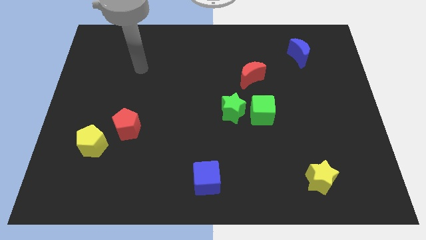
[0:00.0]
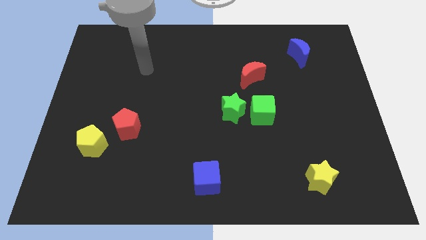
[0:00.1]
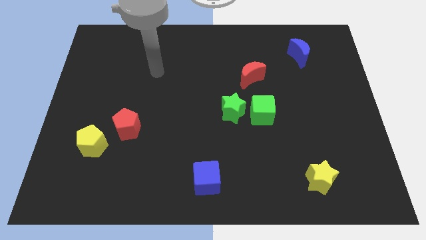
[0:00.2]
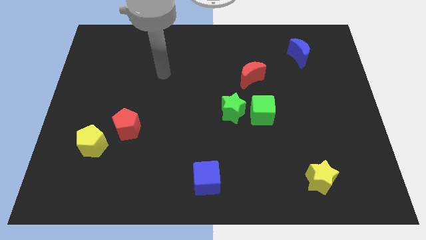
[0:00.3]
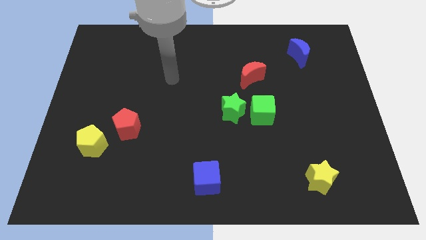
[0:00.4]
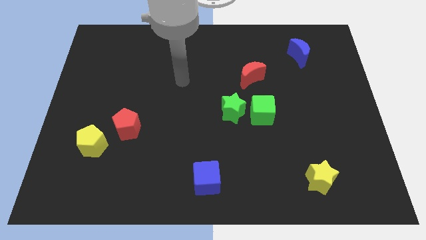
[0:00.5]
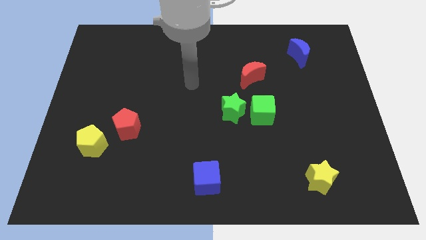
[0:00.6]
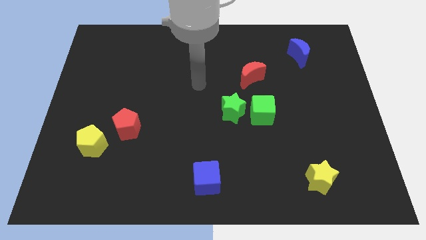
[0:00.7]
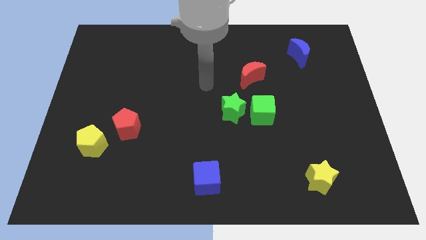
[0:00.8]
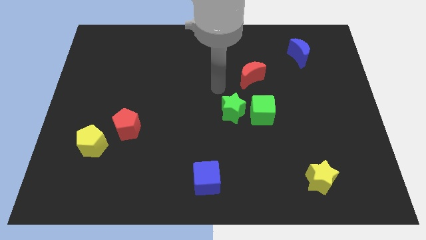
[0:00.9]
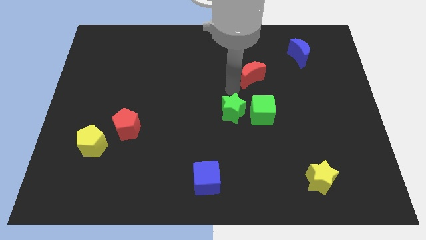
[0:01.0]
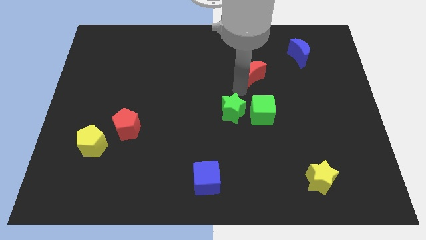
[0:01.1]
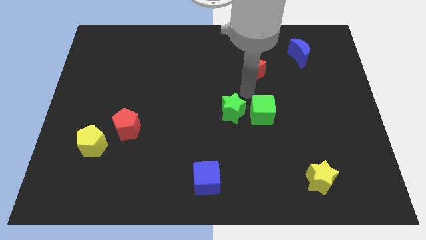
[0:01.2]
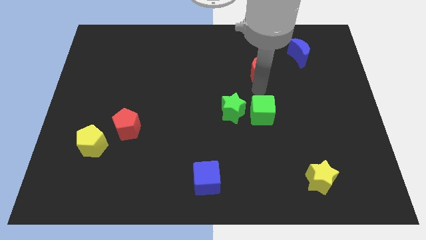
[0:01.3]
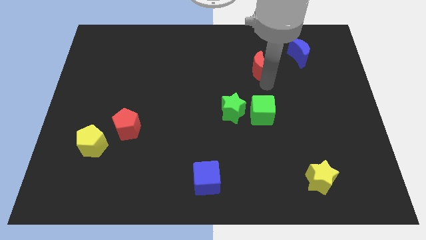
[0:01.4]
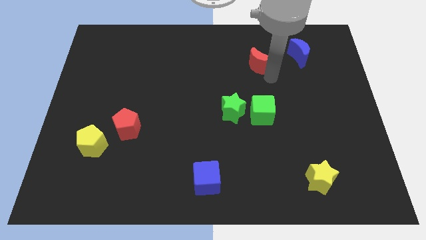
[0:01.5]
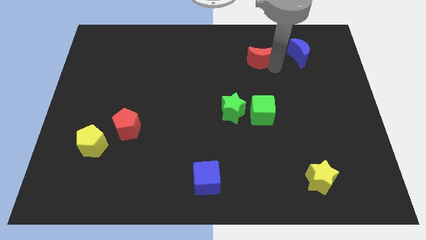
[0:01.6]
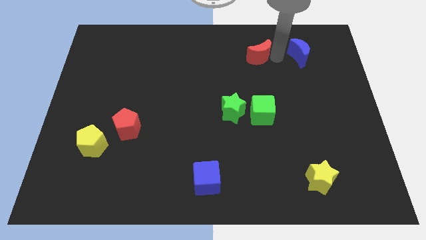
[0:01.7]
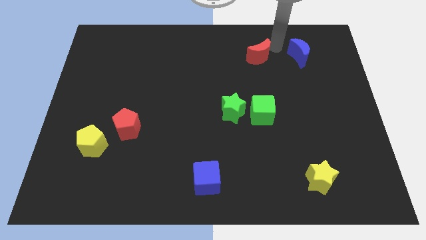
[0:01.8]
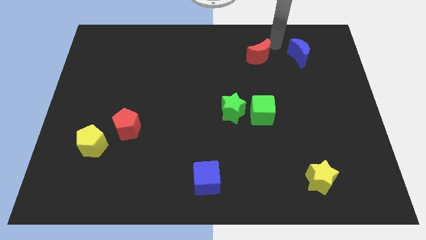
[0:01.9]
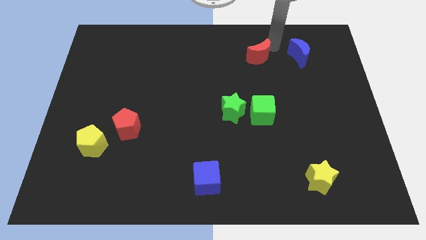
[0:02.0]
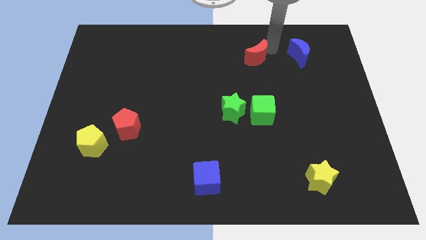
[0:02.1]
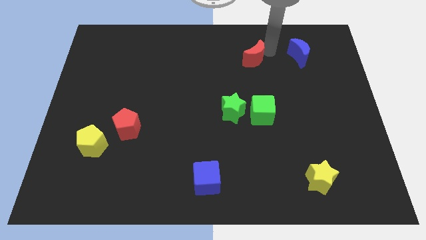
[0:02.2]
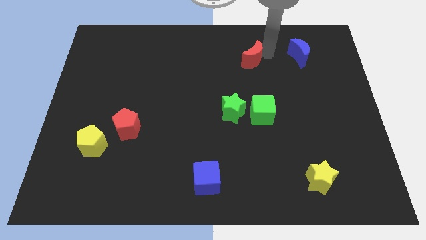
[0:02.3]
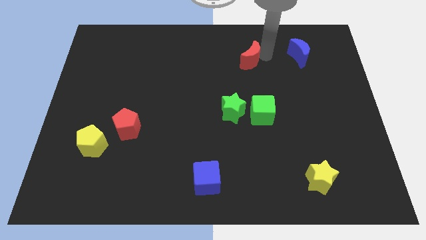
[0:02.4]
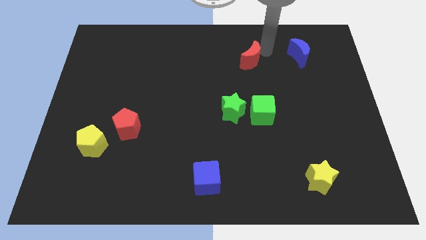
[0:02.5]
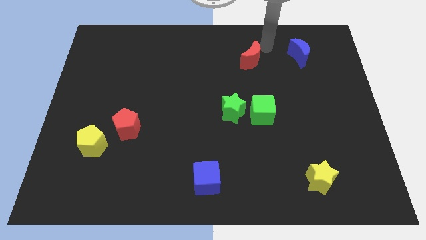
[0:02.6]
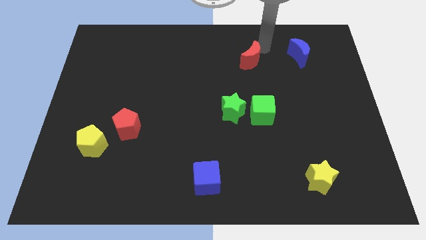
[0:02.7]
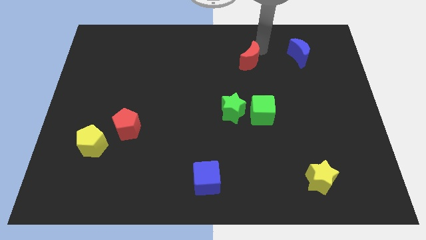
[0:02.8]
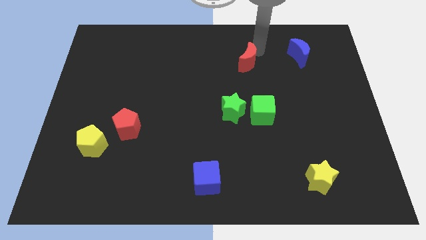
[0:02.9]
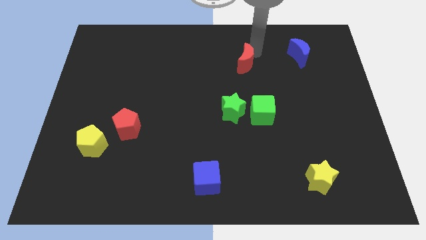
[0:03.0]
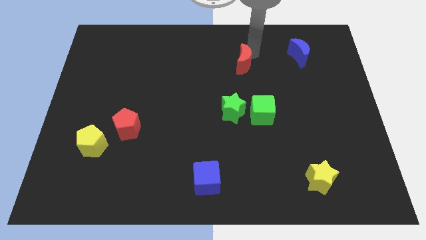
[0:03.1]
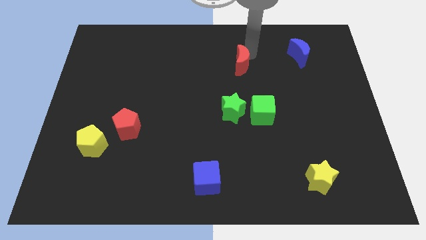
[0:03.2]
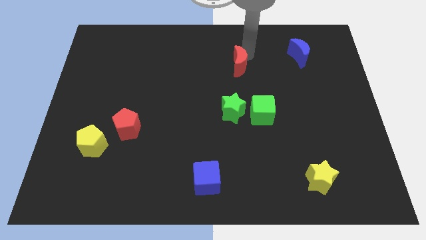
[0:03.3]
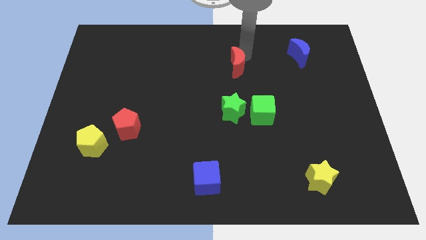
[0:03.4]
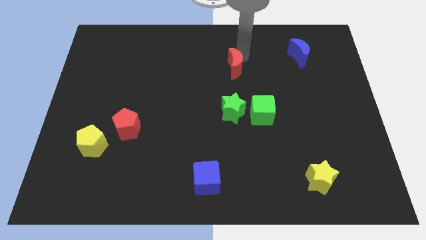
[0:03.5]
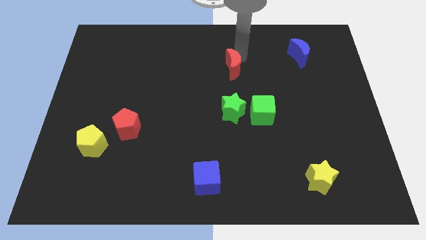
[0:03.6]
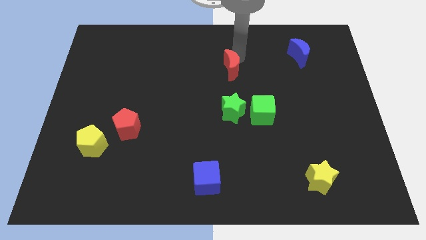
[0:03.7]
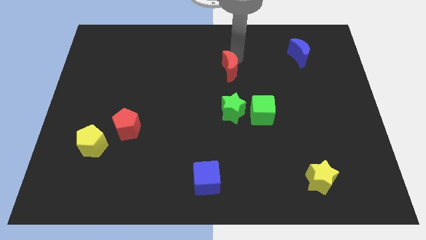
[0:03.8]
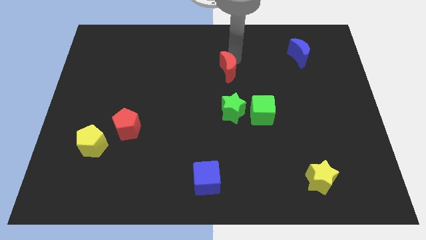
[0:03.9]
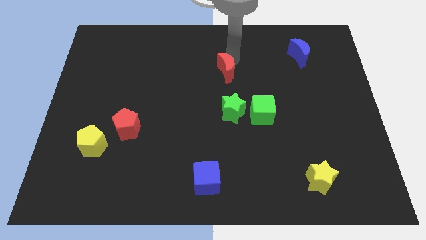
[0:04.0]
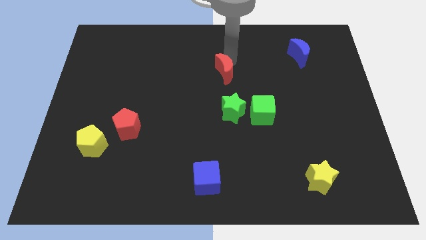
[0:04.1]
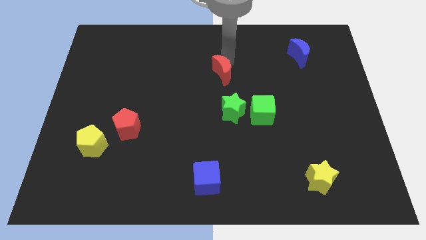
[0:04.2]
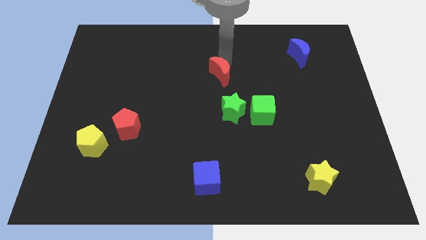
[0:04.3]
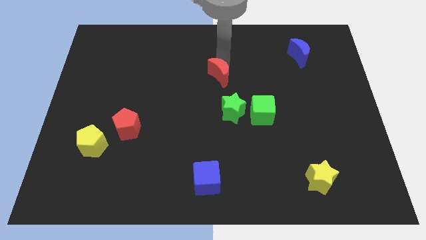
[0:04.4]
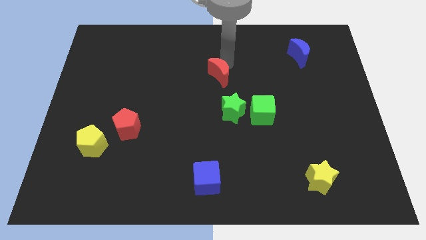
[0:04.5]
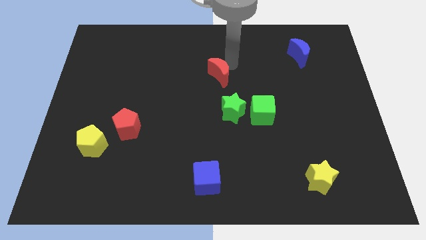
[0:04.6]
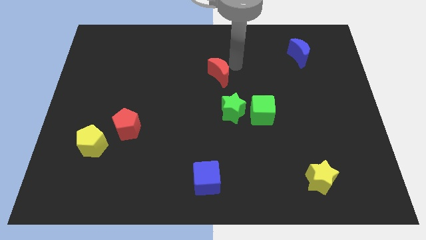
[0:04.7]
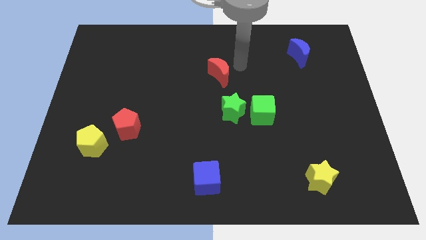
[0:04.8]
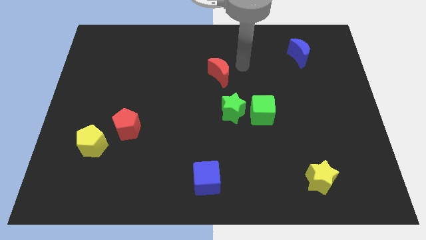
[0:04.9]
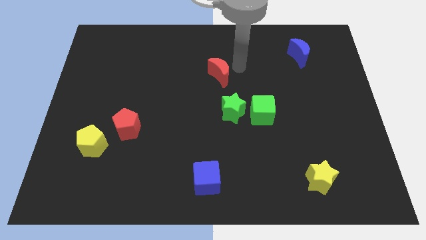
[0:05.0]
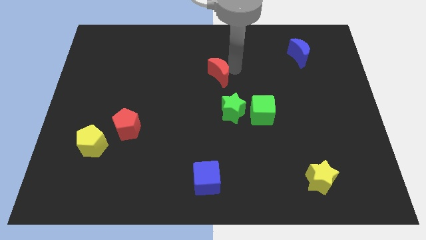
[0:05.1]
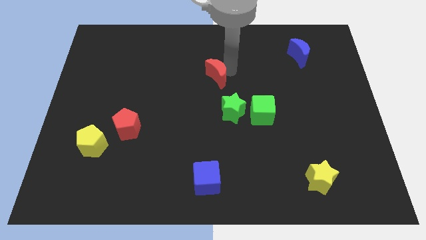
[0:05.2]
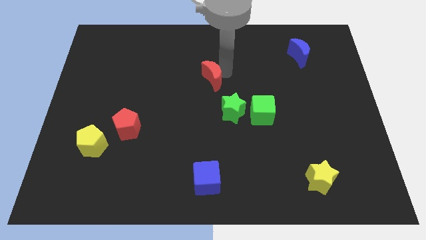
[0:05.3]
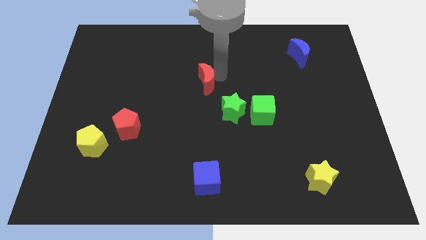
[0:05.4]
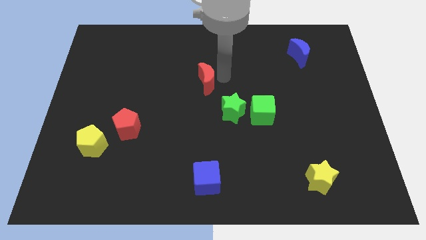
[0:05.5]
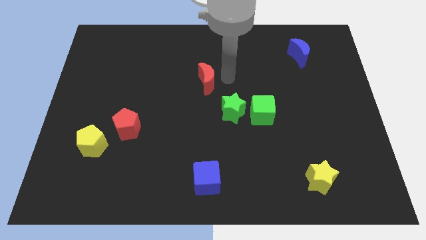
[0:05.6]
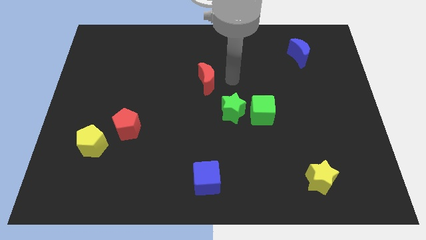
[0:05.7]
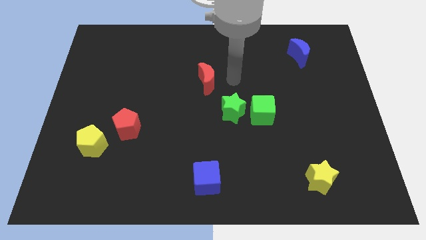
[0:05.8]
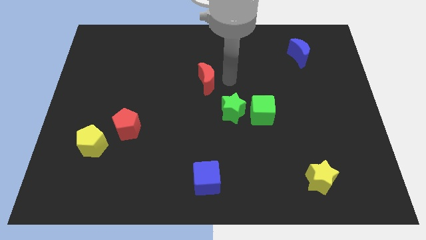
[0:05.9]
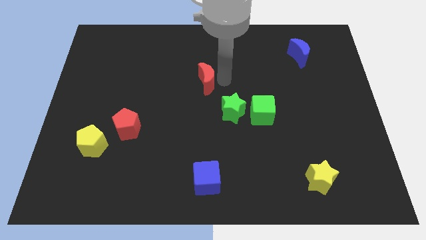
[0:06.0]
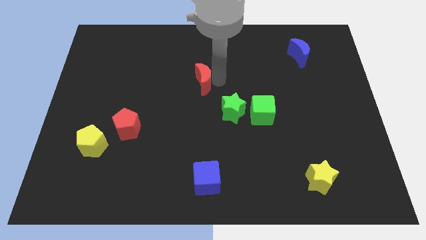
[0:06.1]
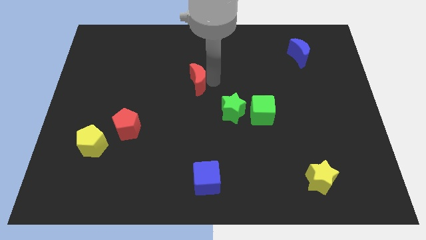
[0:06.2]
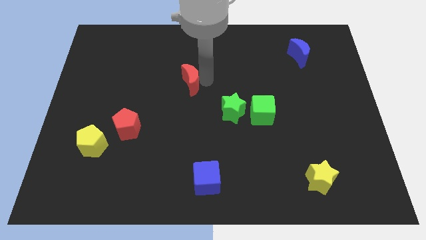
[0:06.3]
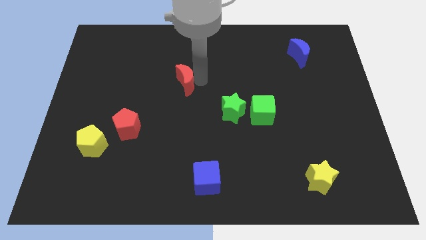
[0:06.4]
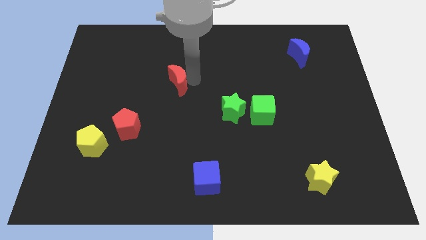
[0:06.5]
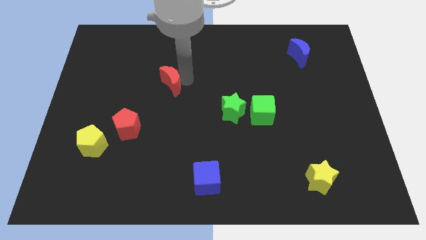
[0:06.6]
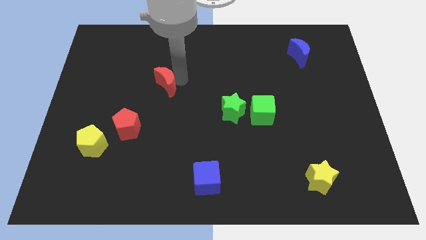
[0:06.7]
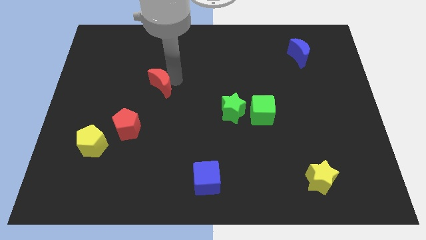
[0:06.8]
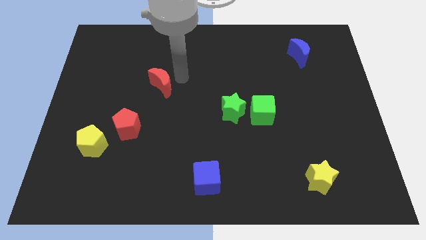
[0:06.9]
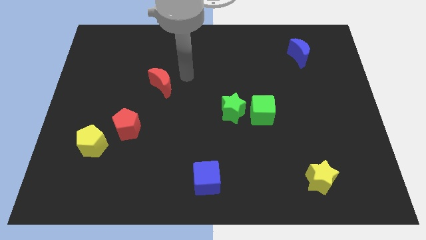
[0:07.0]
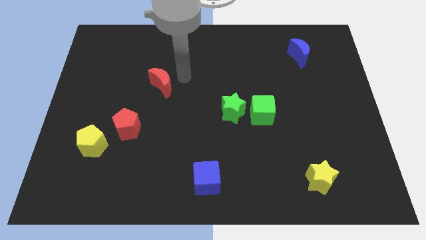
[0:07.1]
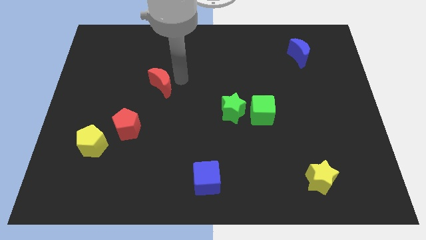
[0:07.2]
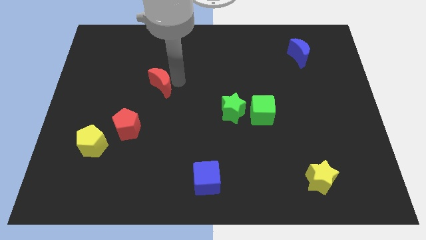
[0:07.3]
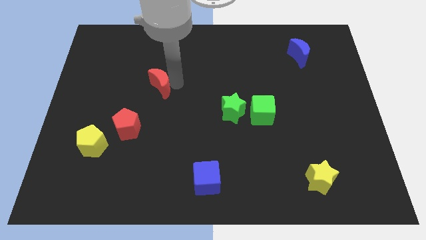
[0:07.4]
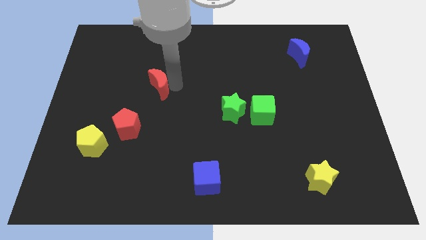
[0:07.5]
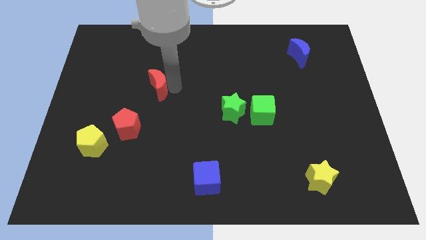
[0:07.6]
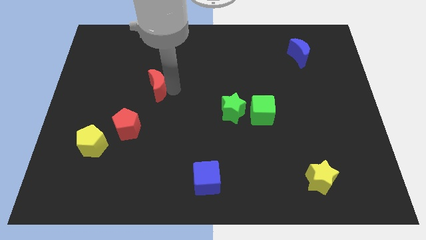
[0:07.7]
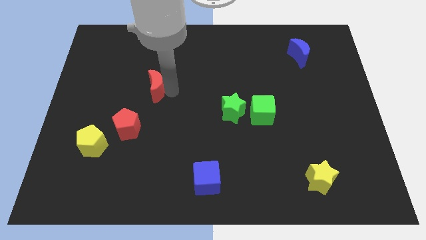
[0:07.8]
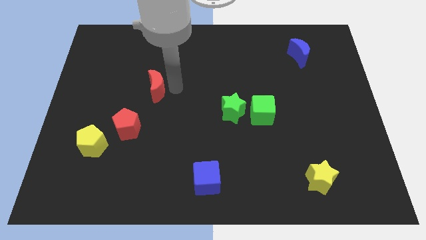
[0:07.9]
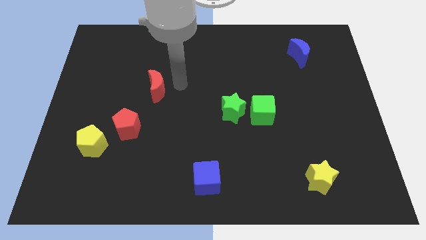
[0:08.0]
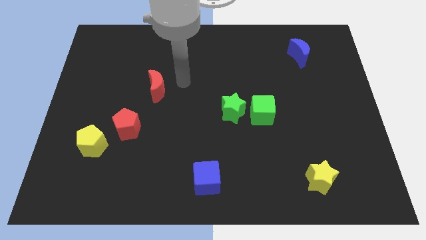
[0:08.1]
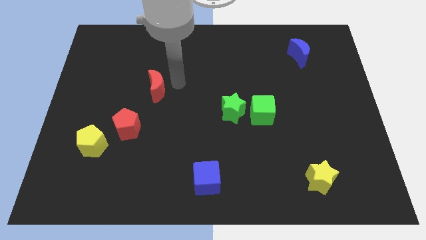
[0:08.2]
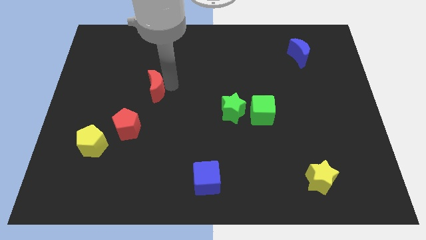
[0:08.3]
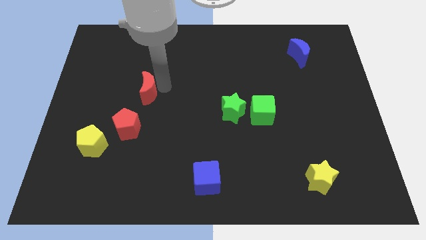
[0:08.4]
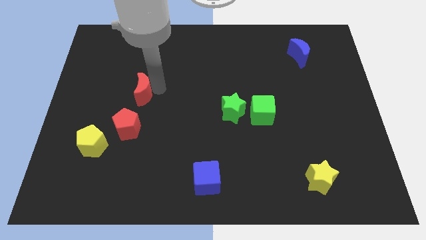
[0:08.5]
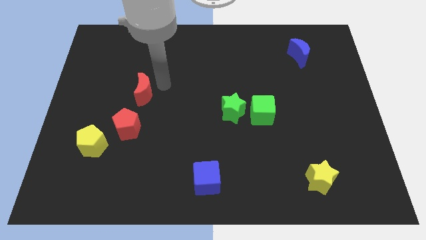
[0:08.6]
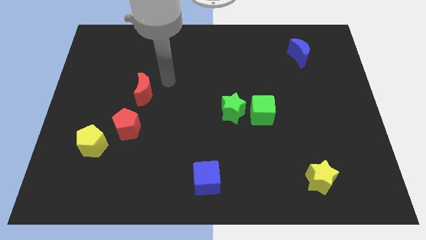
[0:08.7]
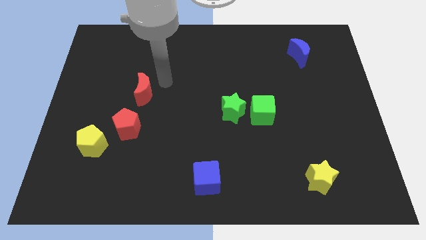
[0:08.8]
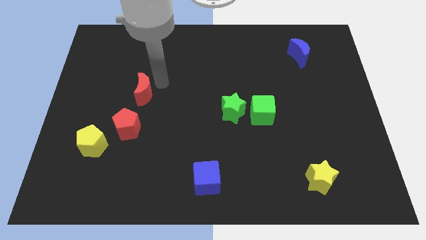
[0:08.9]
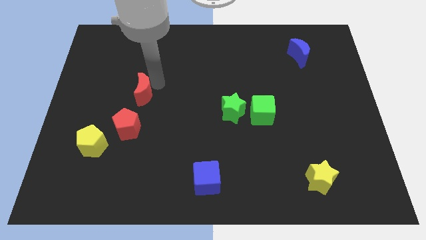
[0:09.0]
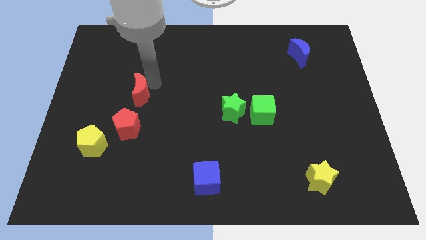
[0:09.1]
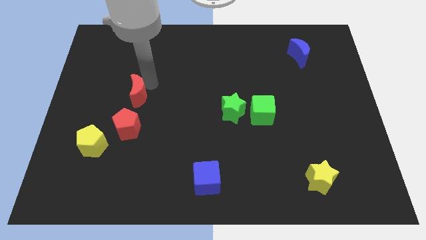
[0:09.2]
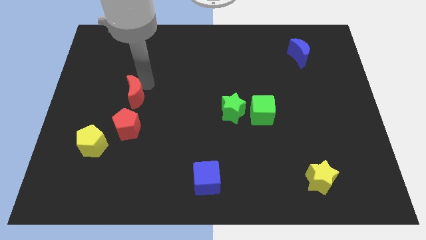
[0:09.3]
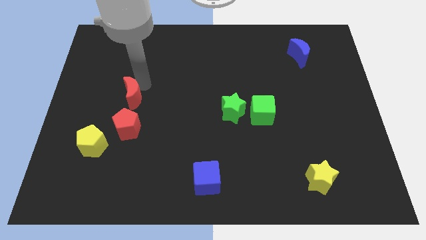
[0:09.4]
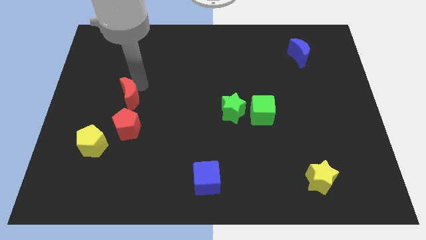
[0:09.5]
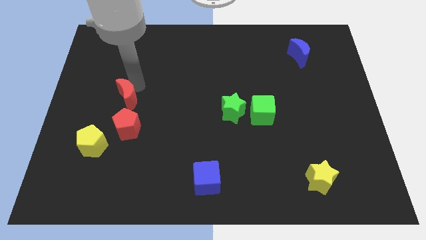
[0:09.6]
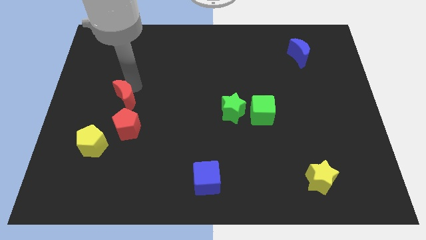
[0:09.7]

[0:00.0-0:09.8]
put the red moon to the top left side of the red pentagon
